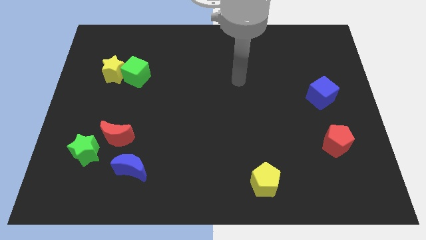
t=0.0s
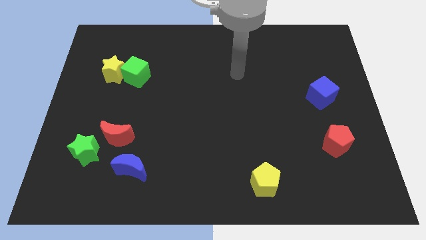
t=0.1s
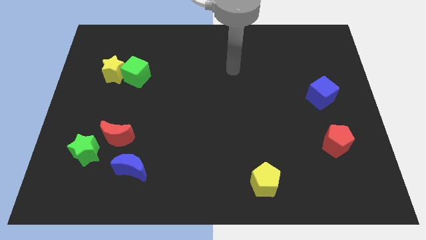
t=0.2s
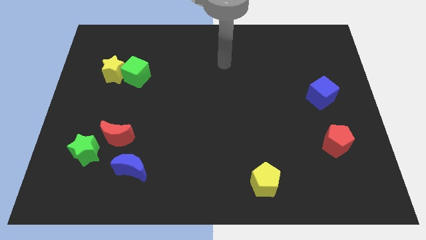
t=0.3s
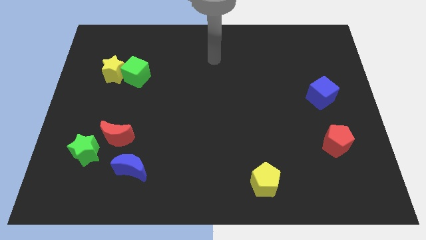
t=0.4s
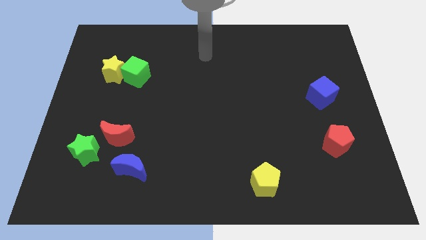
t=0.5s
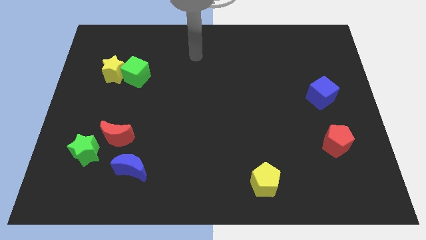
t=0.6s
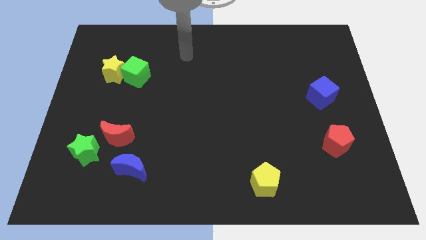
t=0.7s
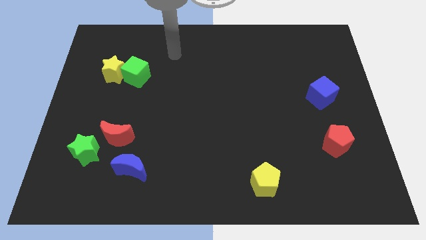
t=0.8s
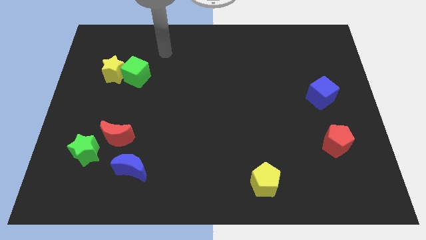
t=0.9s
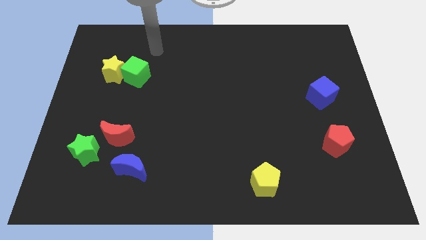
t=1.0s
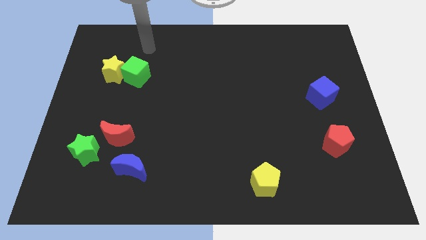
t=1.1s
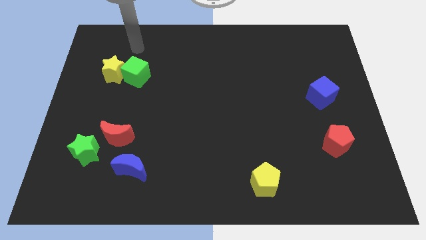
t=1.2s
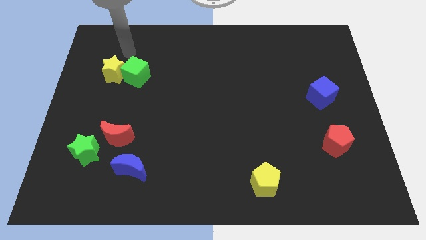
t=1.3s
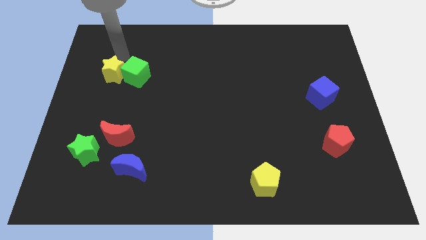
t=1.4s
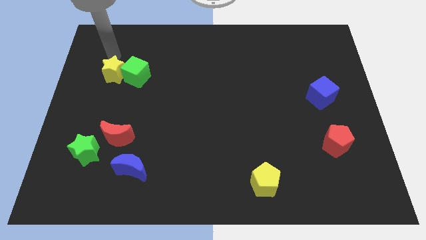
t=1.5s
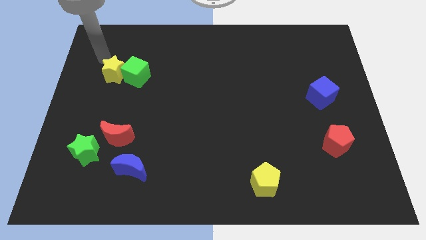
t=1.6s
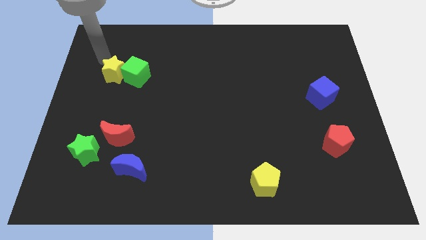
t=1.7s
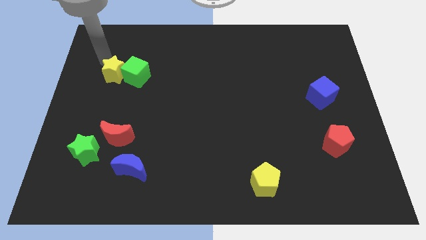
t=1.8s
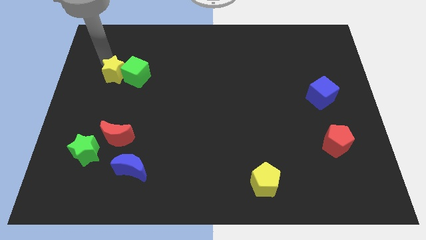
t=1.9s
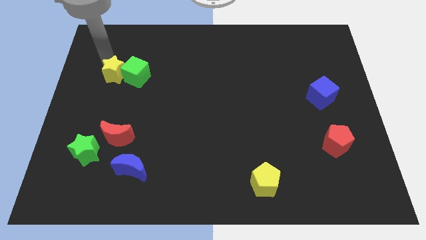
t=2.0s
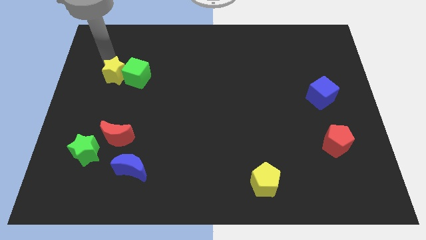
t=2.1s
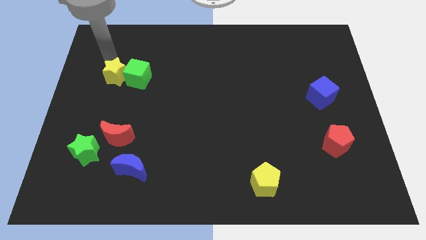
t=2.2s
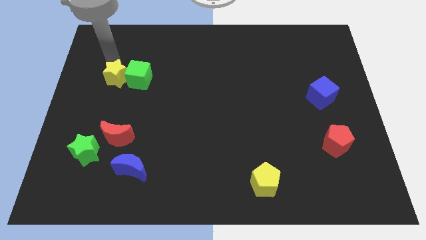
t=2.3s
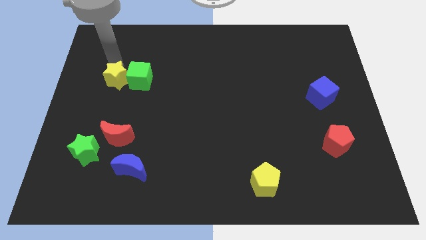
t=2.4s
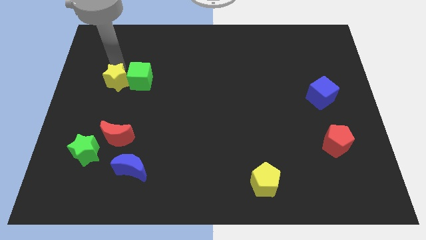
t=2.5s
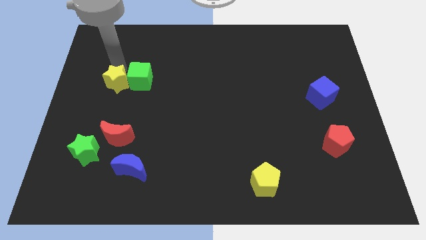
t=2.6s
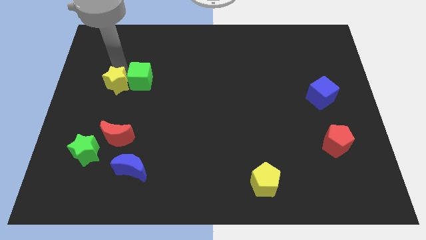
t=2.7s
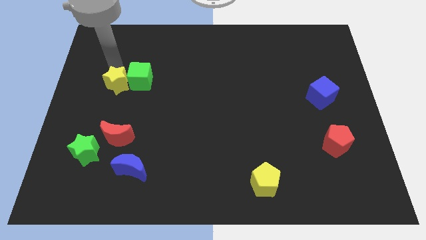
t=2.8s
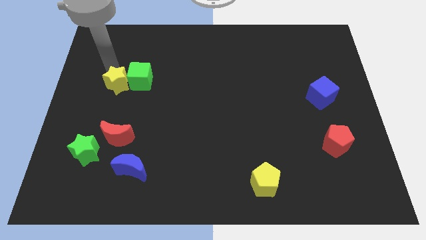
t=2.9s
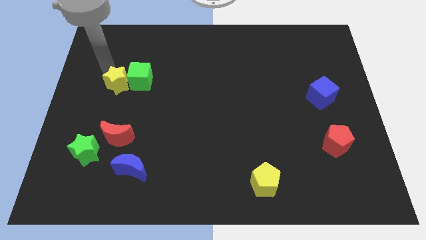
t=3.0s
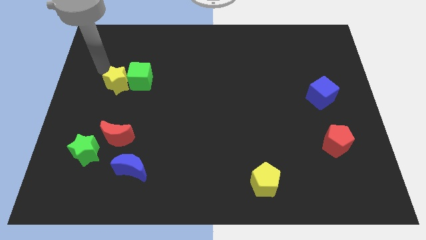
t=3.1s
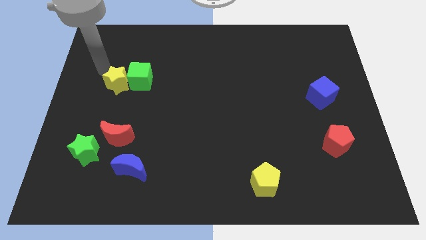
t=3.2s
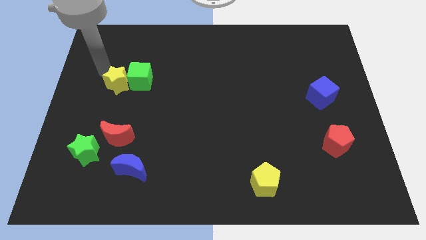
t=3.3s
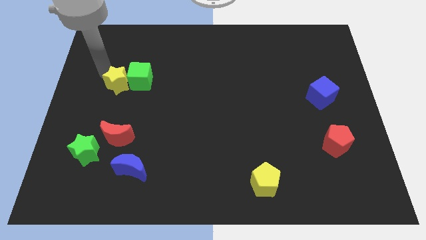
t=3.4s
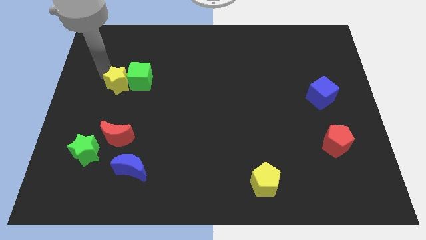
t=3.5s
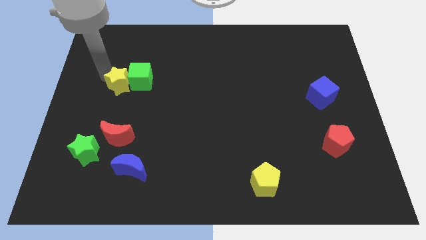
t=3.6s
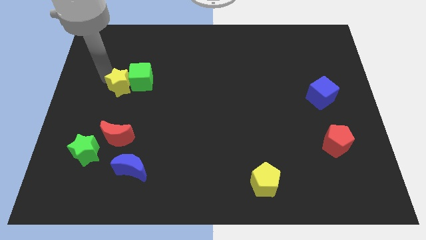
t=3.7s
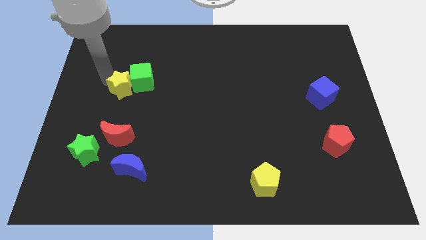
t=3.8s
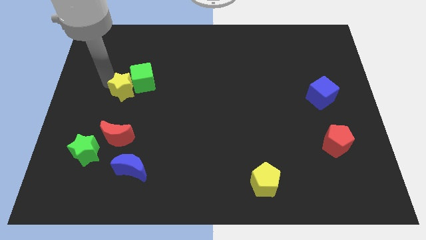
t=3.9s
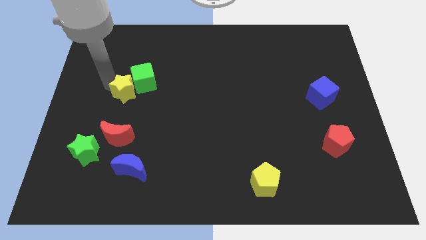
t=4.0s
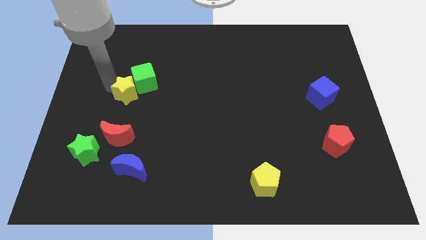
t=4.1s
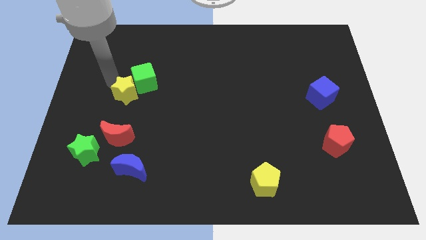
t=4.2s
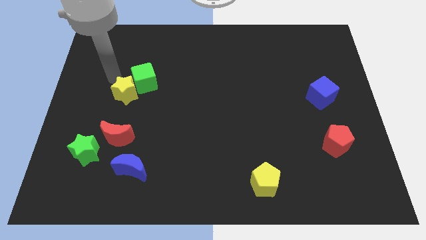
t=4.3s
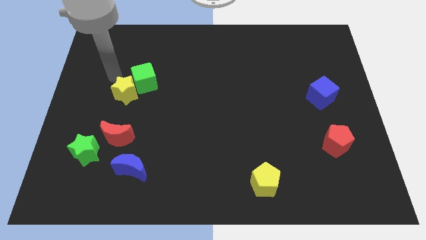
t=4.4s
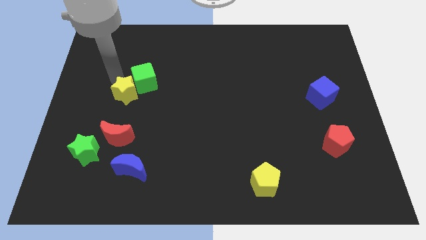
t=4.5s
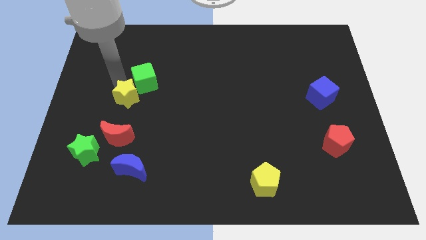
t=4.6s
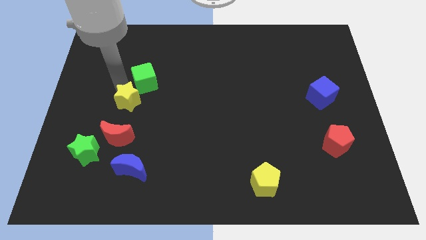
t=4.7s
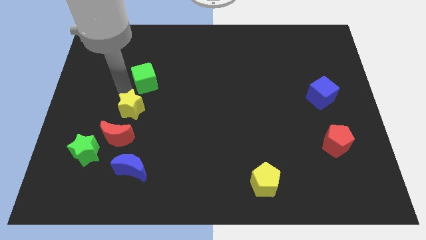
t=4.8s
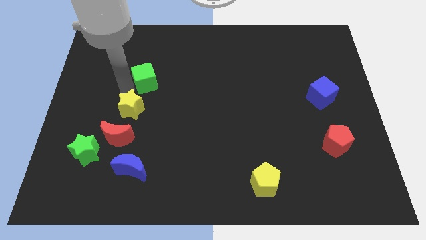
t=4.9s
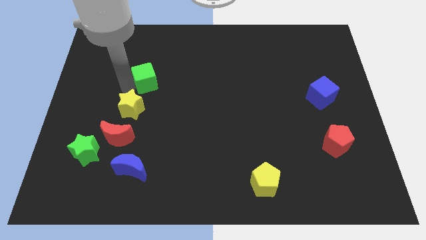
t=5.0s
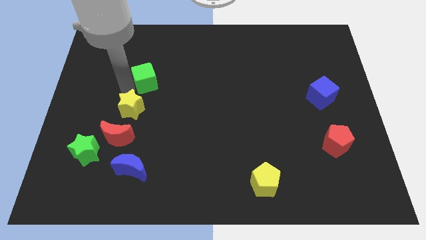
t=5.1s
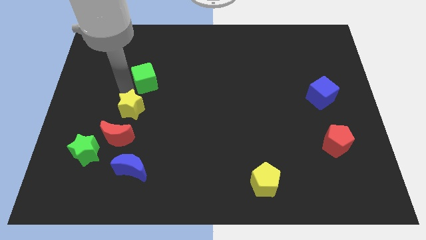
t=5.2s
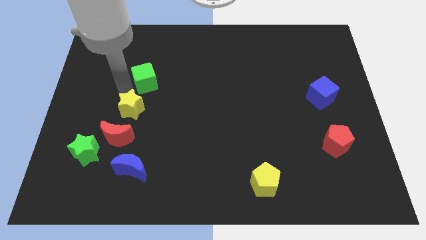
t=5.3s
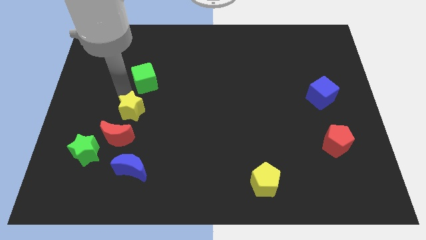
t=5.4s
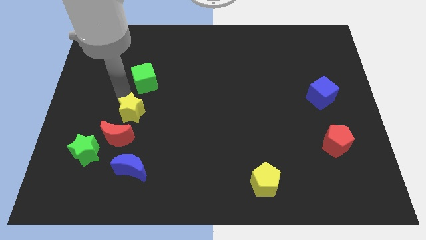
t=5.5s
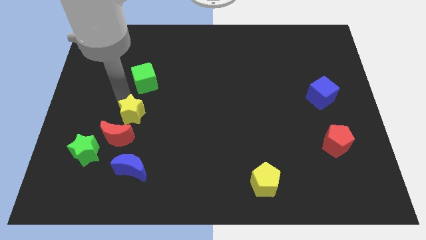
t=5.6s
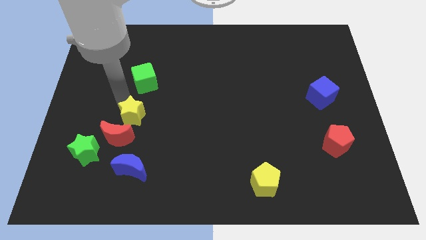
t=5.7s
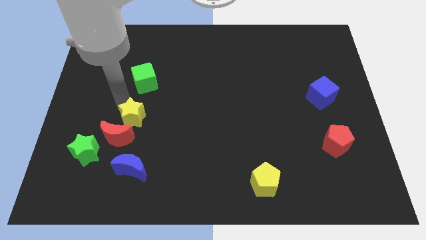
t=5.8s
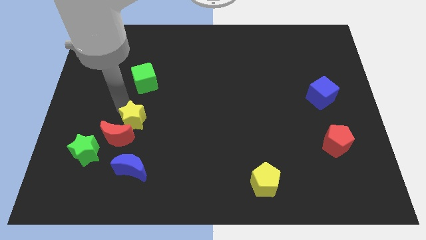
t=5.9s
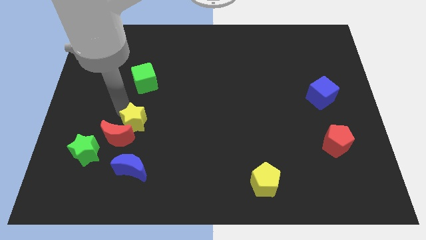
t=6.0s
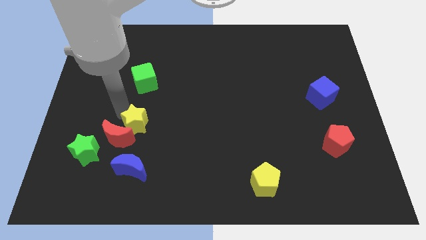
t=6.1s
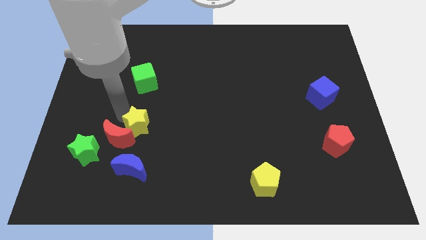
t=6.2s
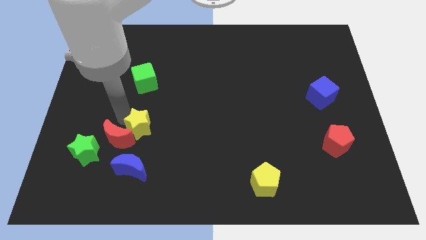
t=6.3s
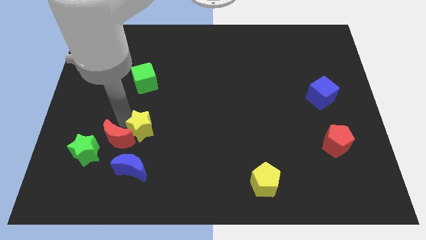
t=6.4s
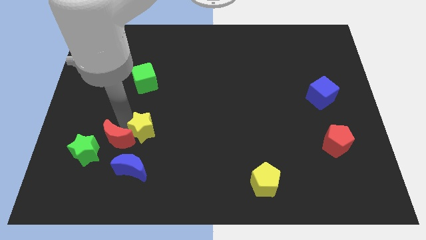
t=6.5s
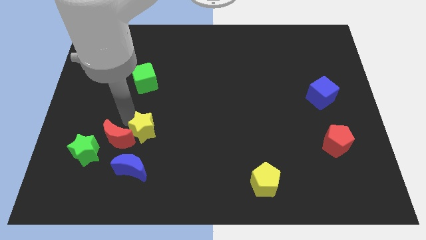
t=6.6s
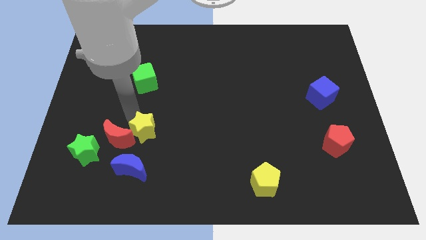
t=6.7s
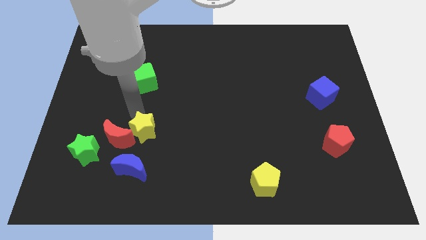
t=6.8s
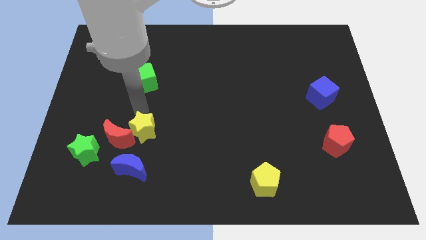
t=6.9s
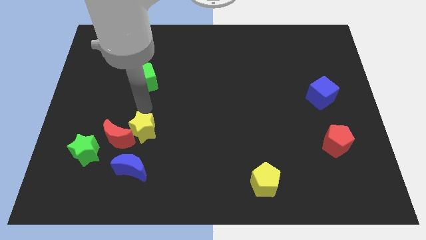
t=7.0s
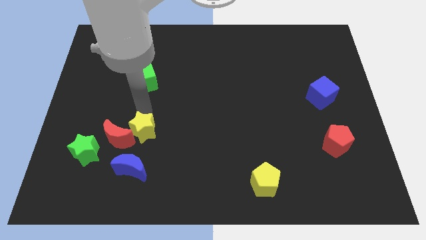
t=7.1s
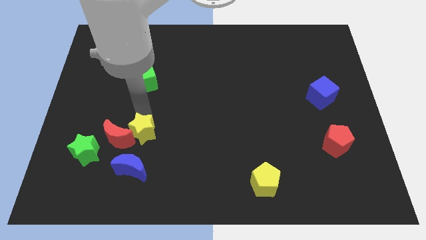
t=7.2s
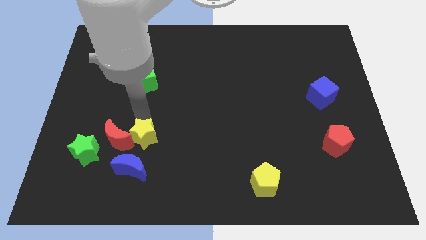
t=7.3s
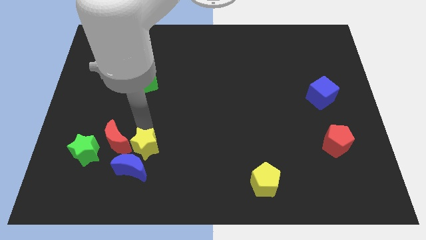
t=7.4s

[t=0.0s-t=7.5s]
move the yellow star next to the blue moon

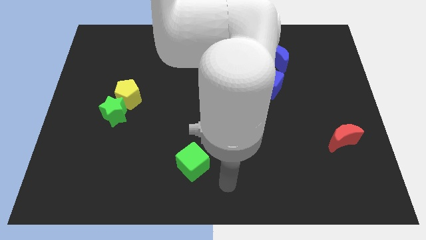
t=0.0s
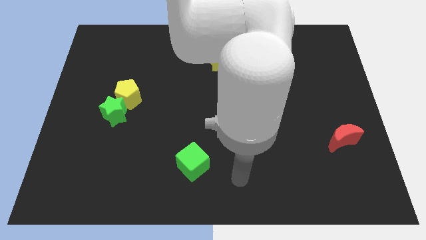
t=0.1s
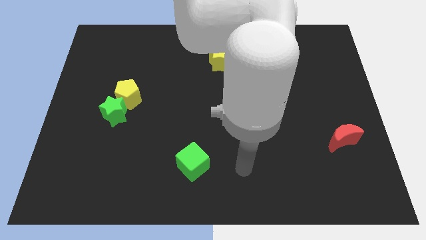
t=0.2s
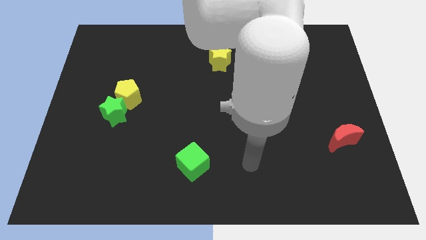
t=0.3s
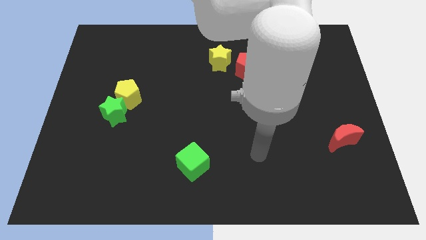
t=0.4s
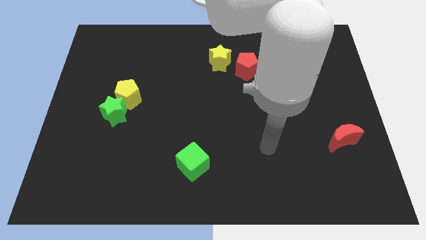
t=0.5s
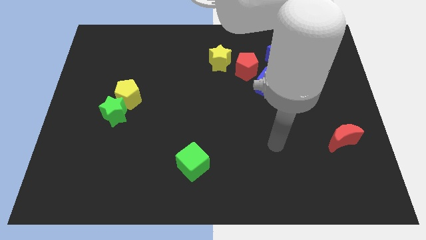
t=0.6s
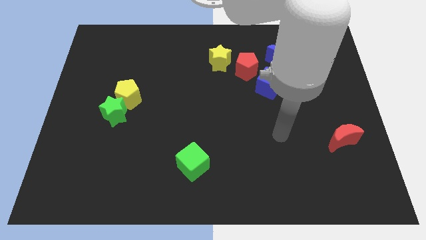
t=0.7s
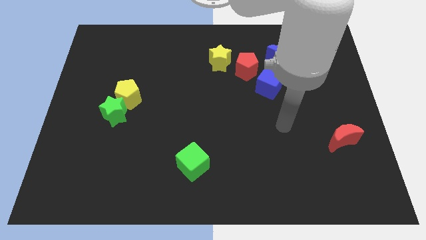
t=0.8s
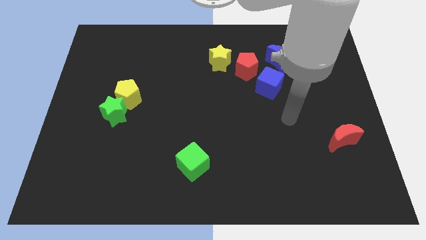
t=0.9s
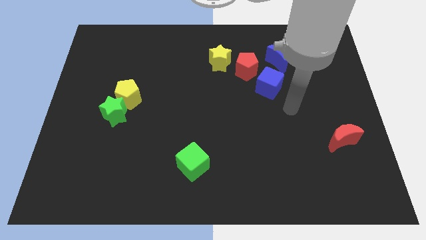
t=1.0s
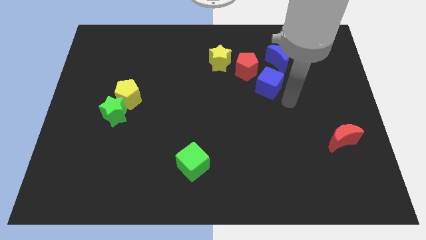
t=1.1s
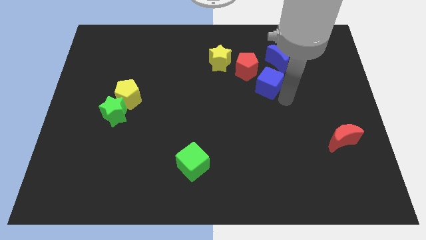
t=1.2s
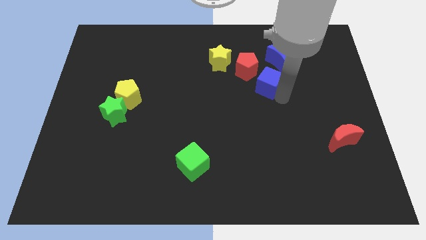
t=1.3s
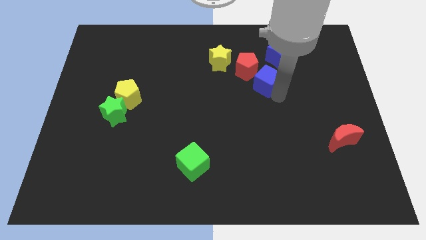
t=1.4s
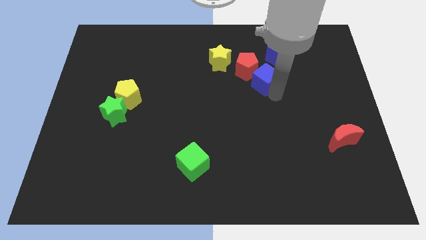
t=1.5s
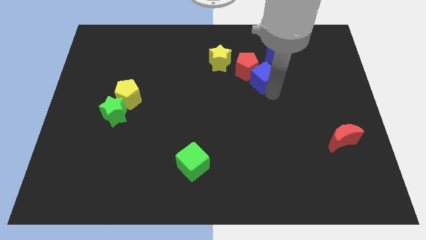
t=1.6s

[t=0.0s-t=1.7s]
put the blue cube close to the red pentagon
